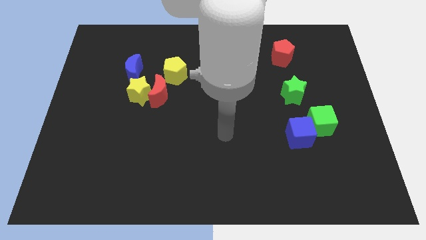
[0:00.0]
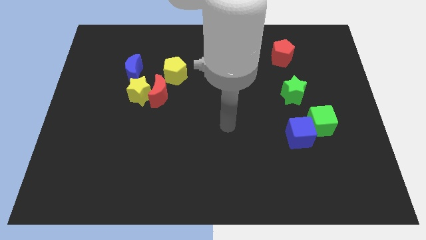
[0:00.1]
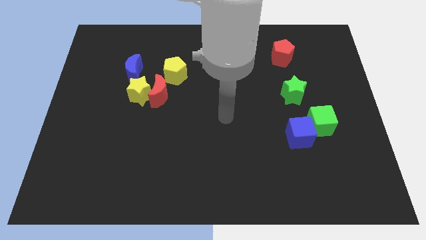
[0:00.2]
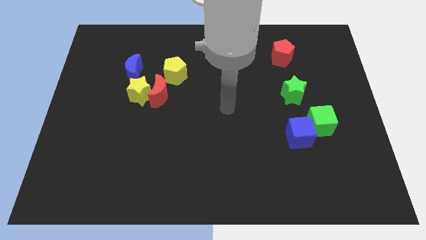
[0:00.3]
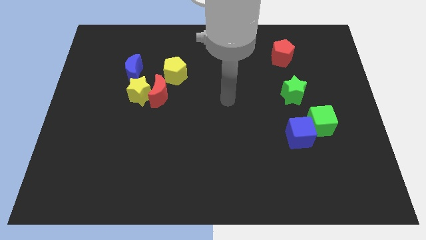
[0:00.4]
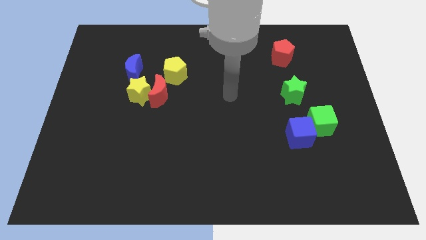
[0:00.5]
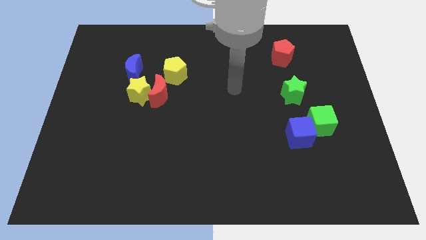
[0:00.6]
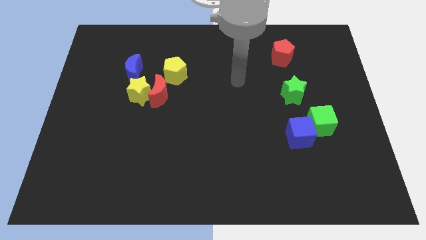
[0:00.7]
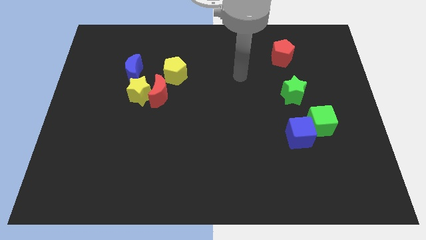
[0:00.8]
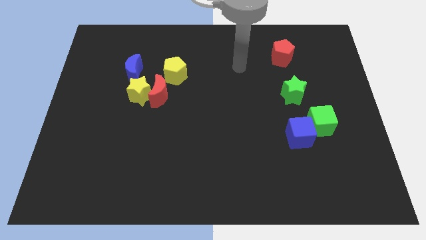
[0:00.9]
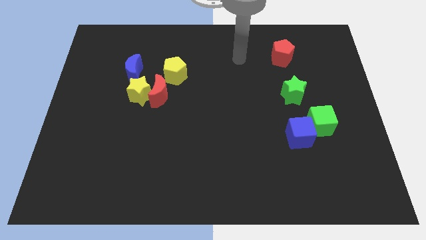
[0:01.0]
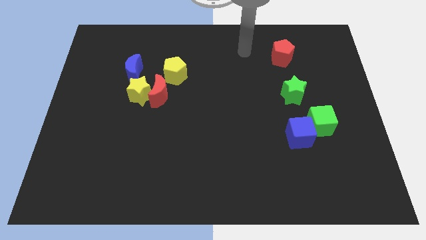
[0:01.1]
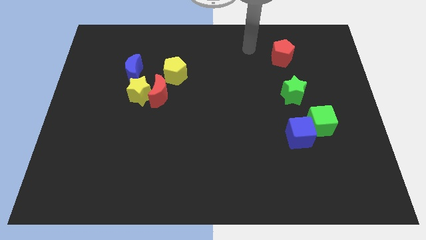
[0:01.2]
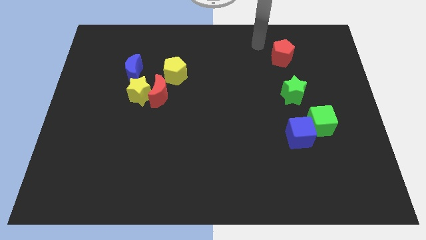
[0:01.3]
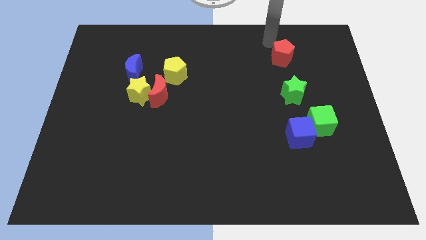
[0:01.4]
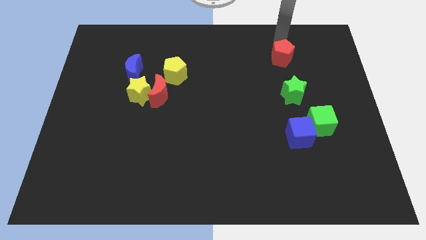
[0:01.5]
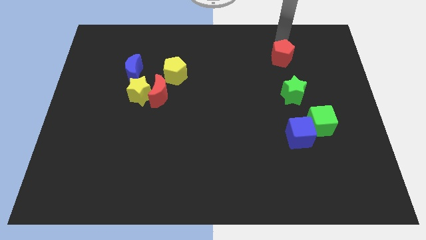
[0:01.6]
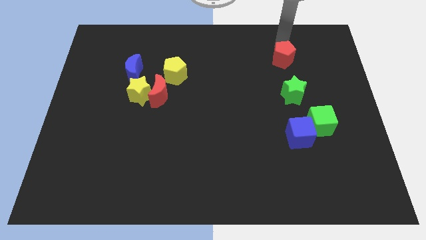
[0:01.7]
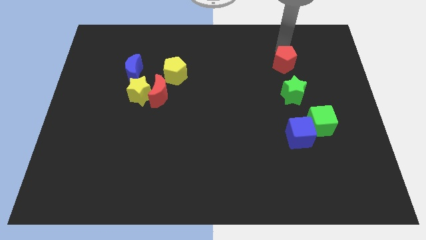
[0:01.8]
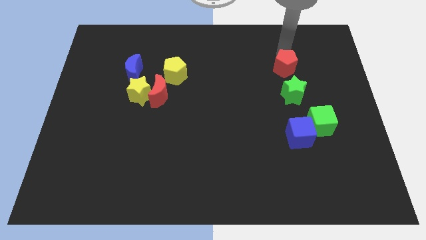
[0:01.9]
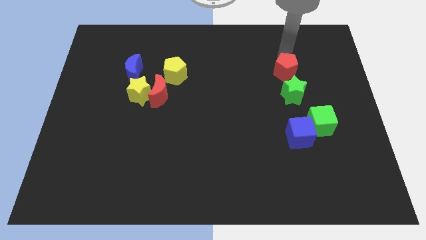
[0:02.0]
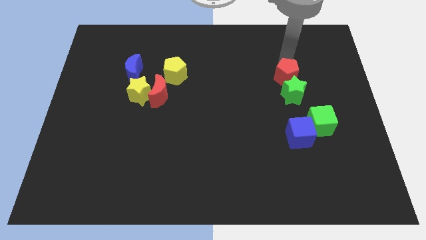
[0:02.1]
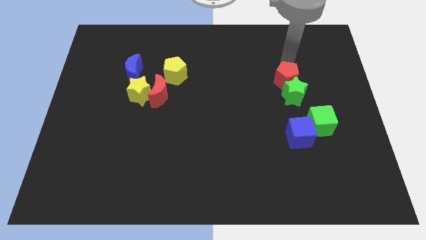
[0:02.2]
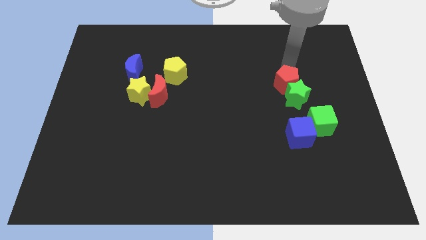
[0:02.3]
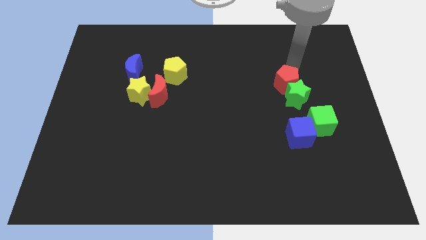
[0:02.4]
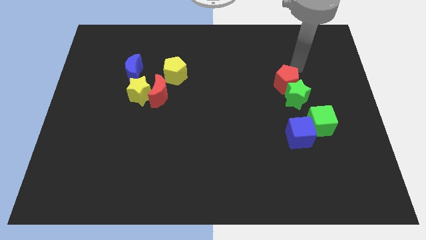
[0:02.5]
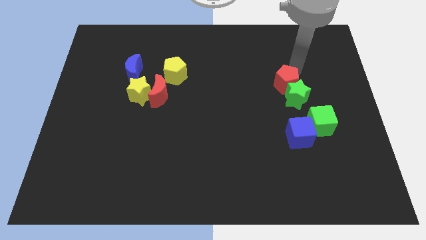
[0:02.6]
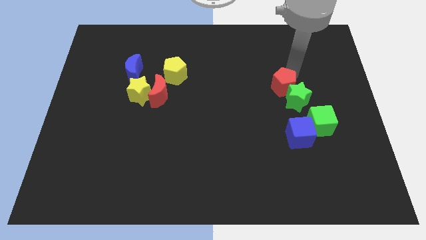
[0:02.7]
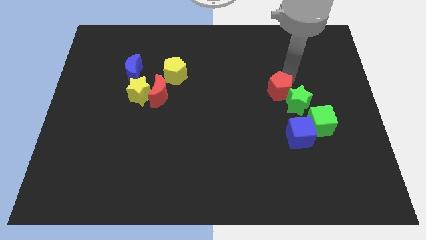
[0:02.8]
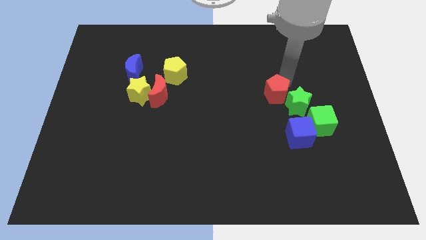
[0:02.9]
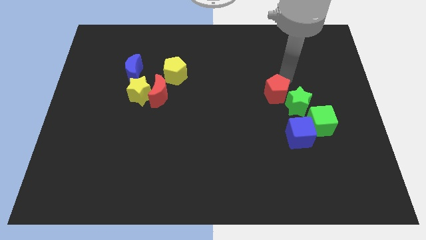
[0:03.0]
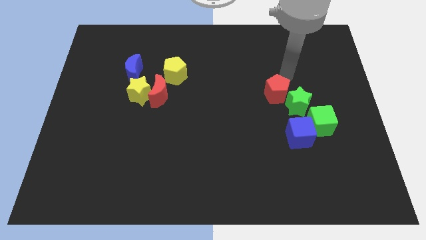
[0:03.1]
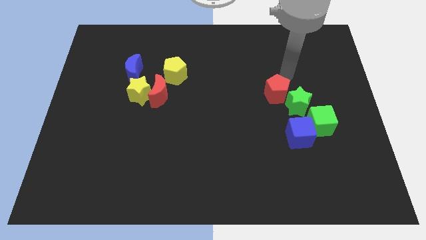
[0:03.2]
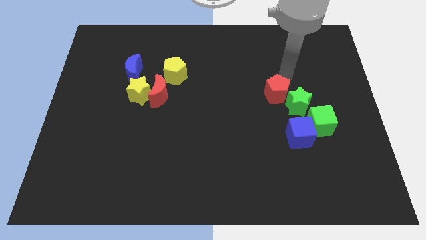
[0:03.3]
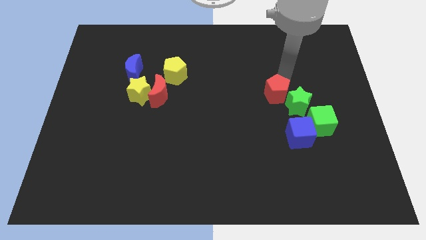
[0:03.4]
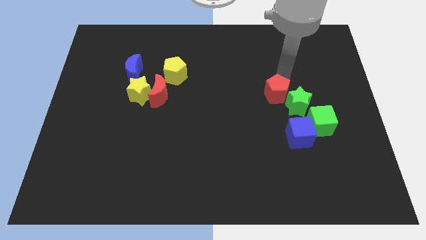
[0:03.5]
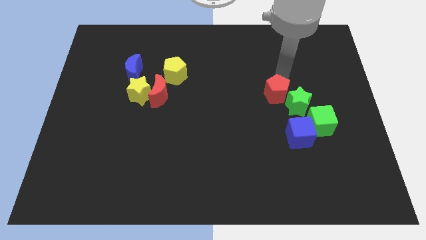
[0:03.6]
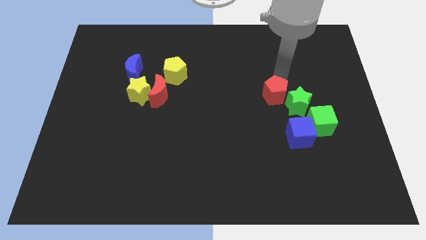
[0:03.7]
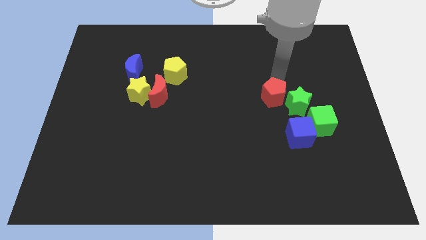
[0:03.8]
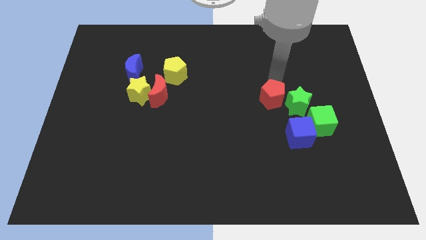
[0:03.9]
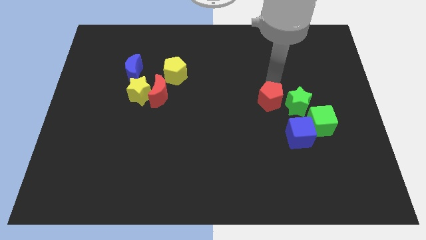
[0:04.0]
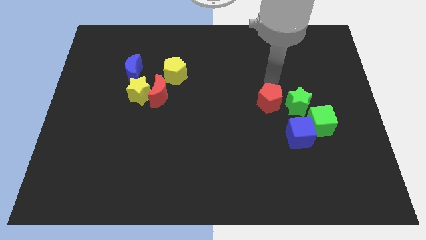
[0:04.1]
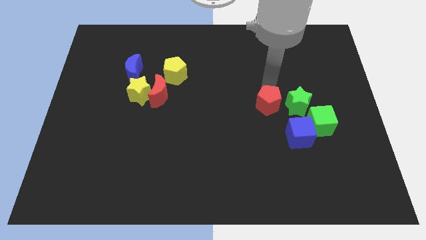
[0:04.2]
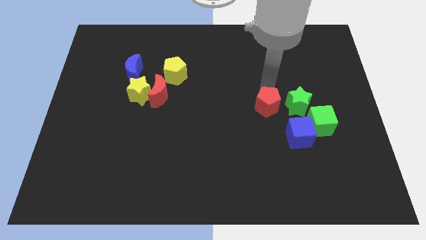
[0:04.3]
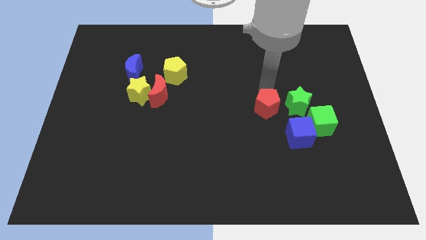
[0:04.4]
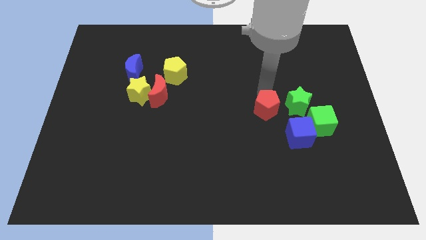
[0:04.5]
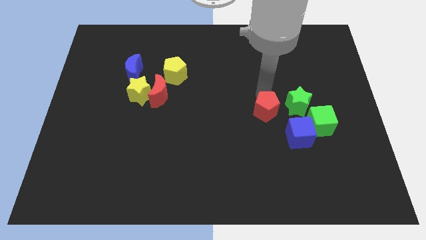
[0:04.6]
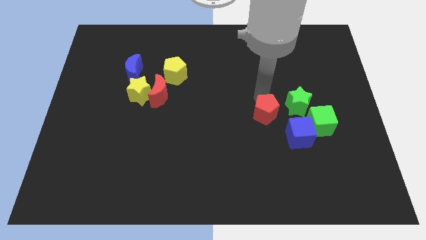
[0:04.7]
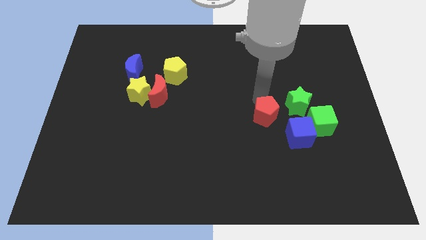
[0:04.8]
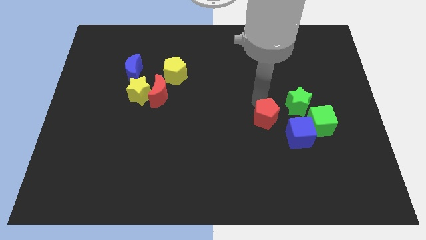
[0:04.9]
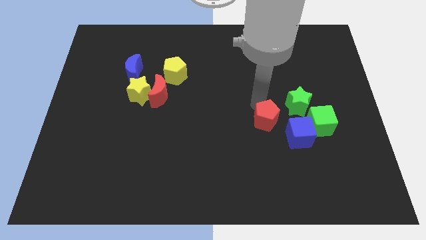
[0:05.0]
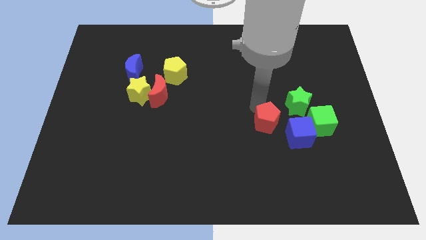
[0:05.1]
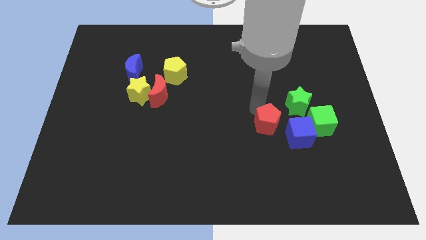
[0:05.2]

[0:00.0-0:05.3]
slide the red pentagon downwards

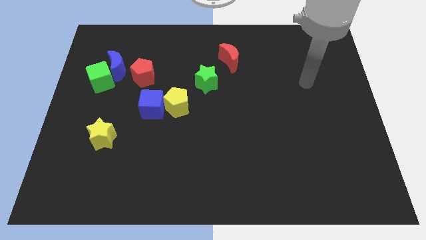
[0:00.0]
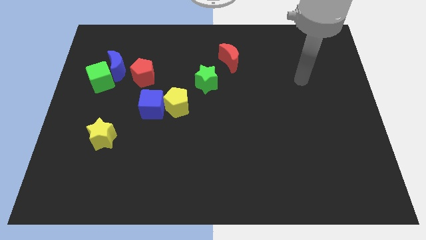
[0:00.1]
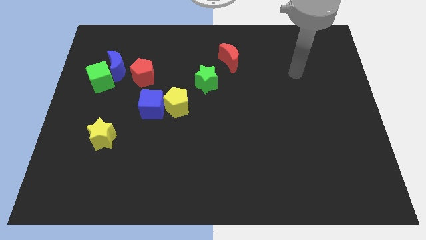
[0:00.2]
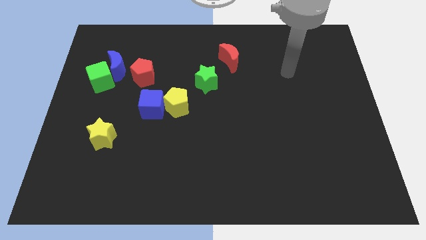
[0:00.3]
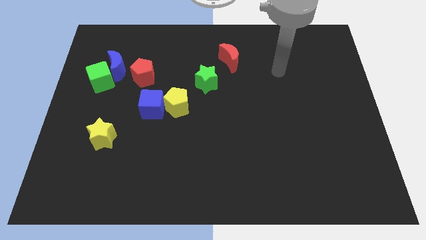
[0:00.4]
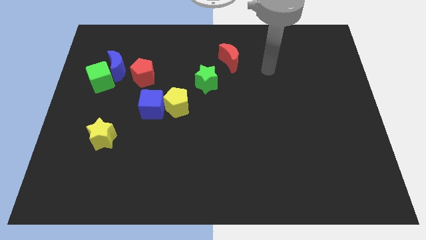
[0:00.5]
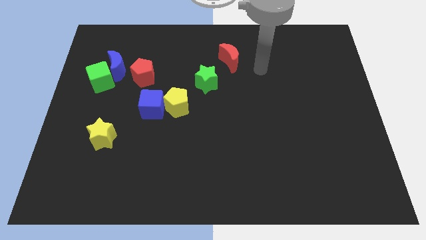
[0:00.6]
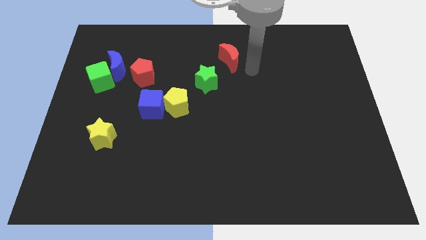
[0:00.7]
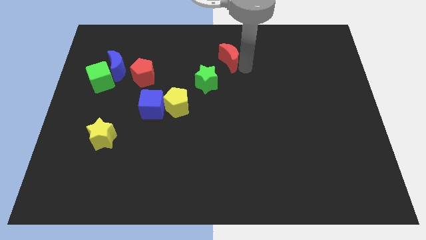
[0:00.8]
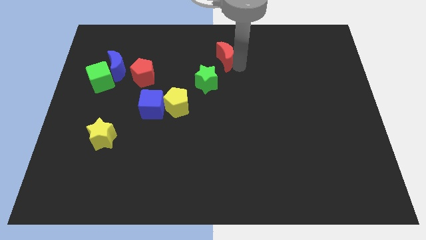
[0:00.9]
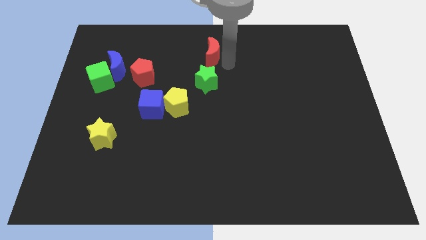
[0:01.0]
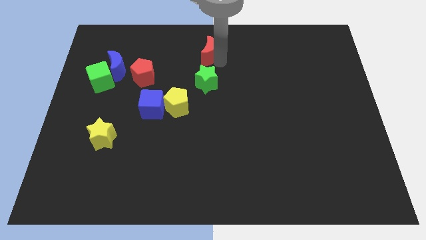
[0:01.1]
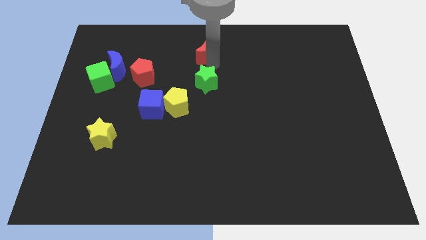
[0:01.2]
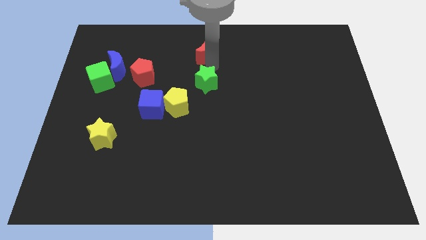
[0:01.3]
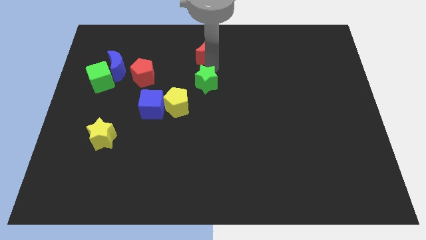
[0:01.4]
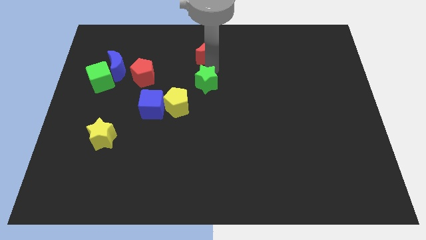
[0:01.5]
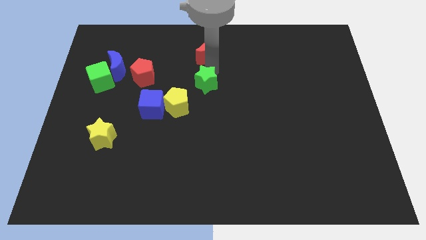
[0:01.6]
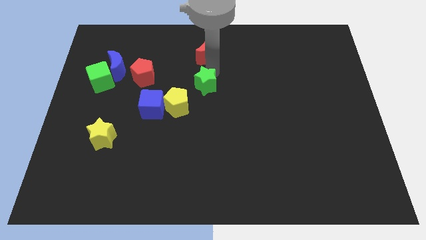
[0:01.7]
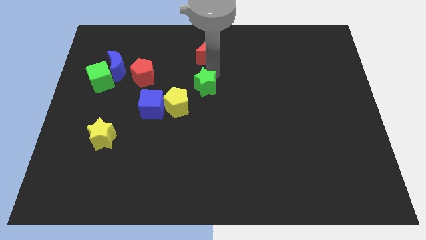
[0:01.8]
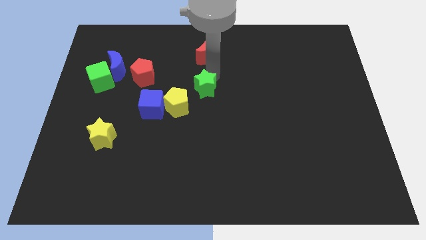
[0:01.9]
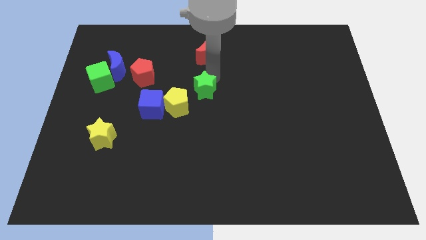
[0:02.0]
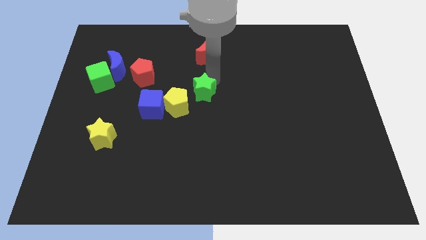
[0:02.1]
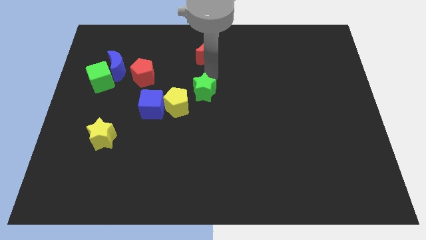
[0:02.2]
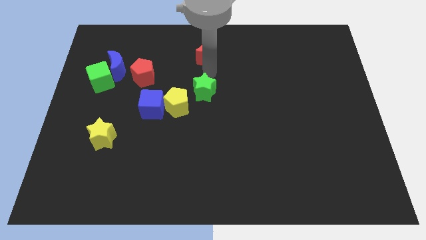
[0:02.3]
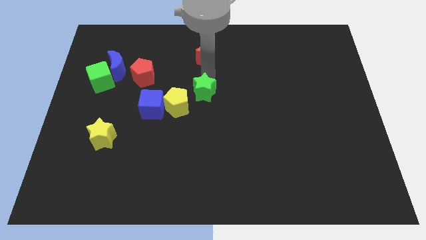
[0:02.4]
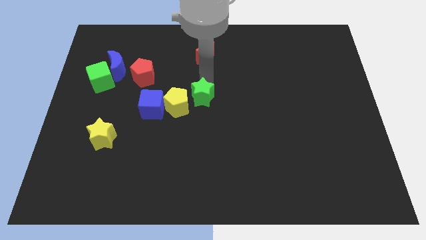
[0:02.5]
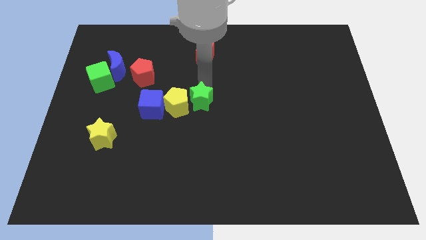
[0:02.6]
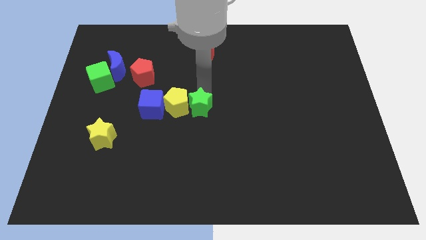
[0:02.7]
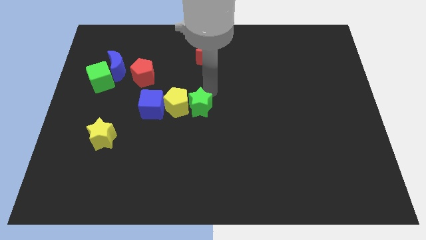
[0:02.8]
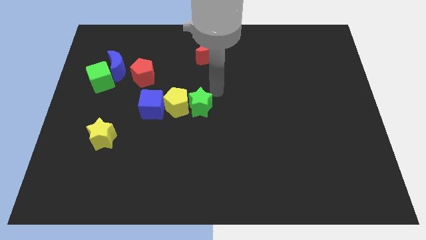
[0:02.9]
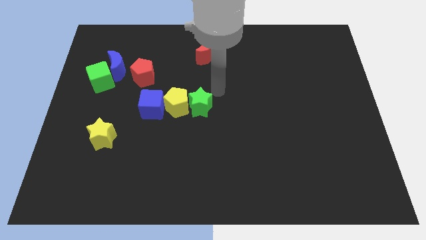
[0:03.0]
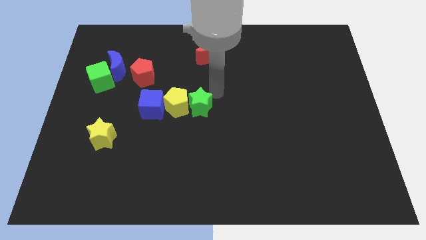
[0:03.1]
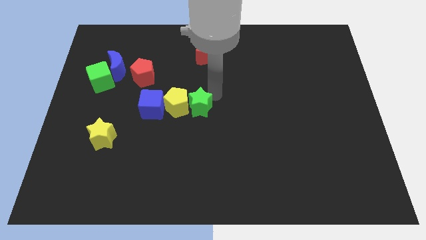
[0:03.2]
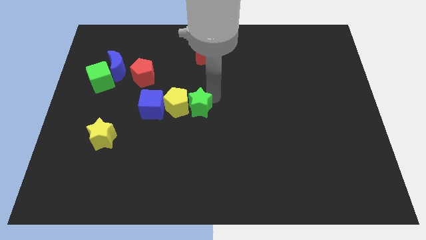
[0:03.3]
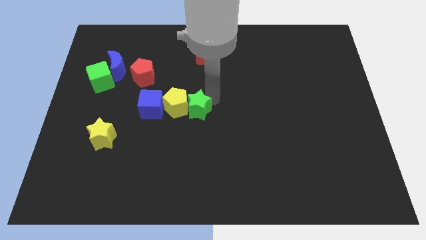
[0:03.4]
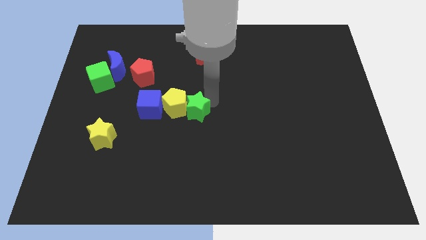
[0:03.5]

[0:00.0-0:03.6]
move the green star somewhat down and then left
